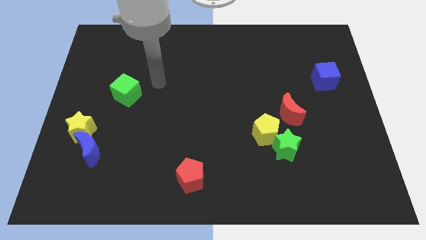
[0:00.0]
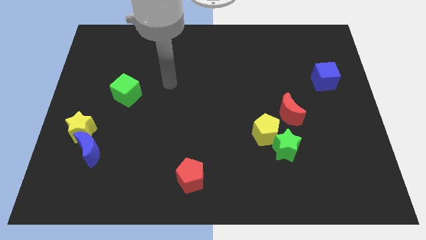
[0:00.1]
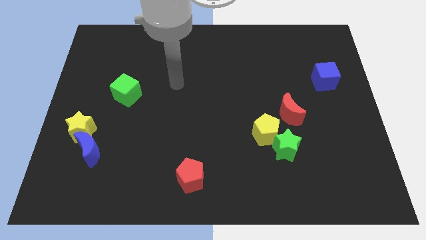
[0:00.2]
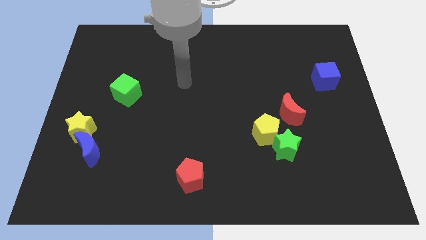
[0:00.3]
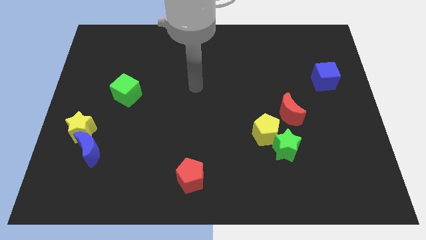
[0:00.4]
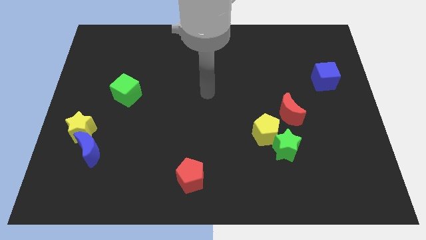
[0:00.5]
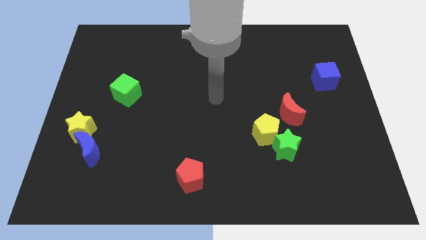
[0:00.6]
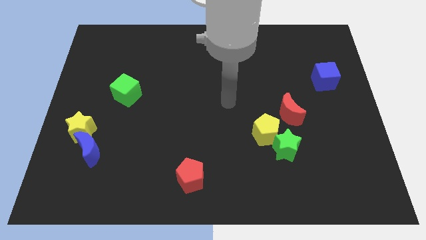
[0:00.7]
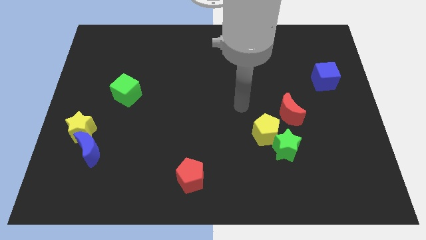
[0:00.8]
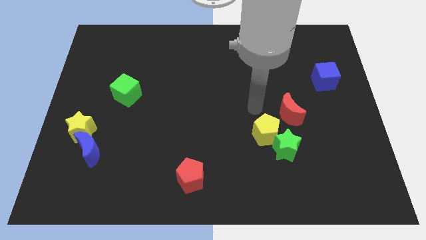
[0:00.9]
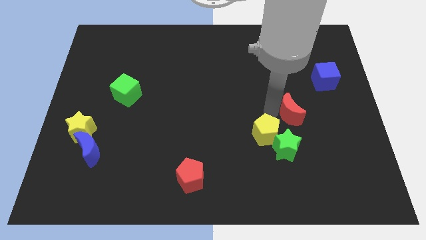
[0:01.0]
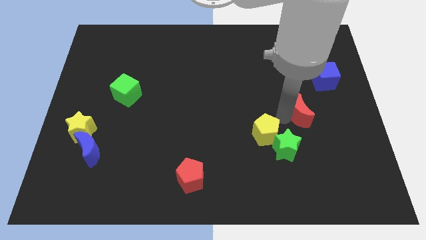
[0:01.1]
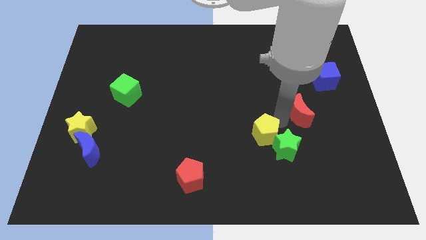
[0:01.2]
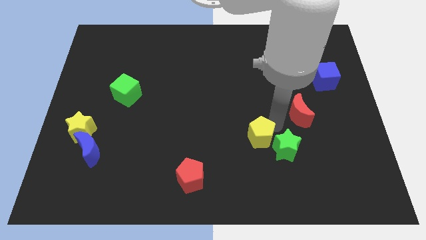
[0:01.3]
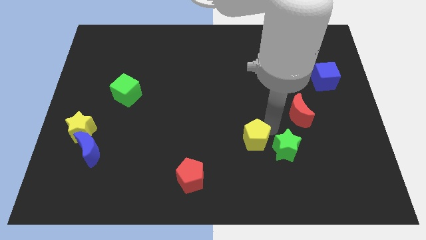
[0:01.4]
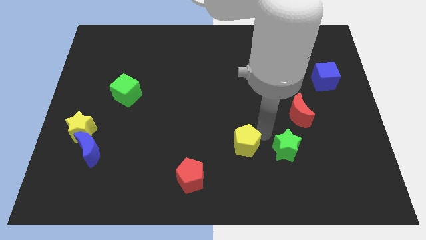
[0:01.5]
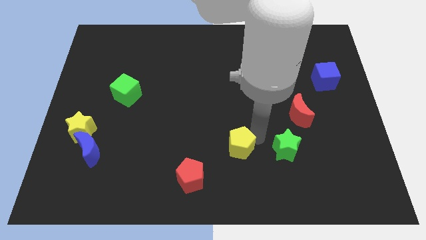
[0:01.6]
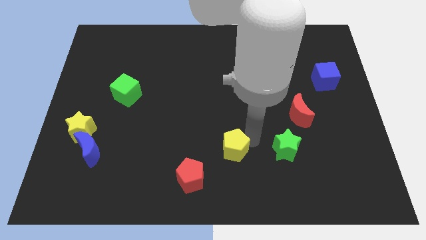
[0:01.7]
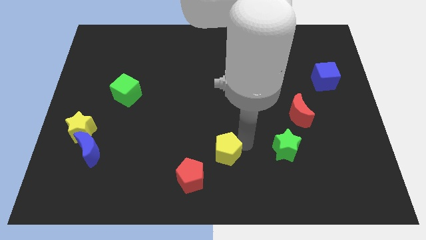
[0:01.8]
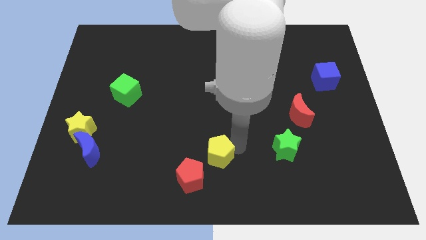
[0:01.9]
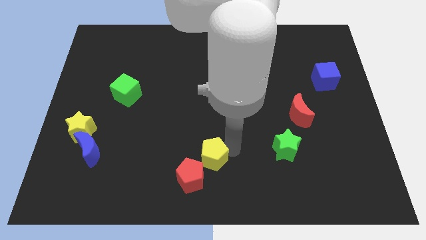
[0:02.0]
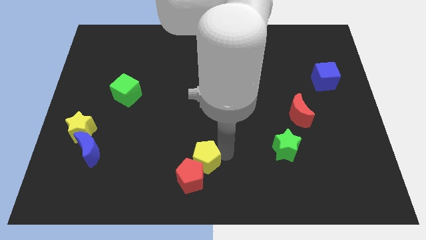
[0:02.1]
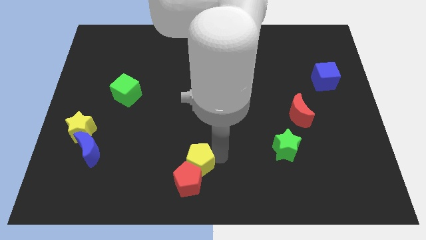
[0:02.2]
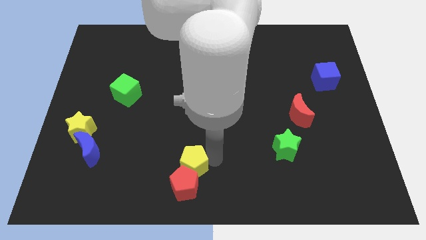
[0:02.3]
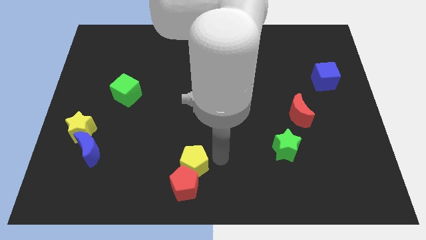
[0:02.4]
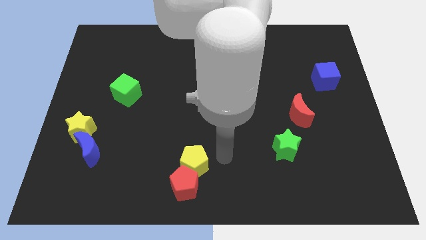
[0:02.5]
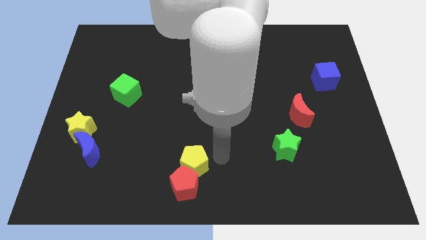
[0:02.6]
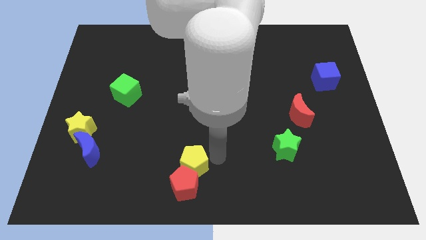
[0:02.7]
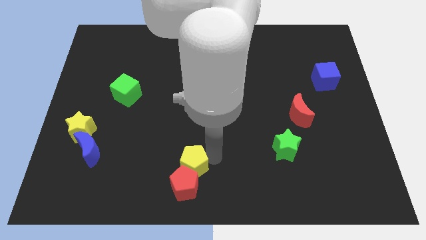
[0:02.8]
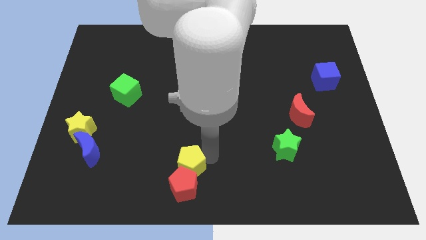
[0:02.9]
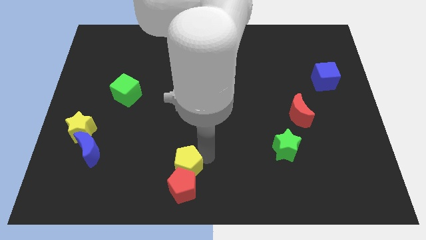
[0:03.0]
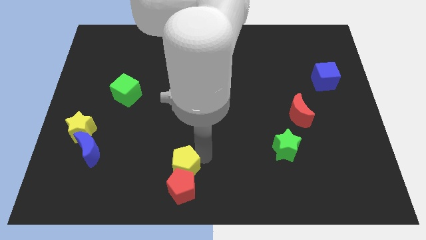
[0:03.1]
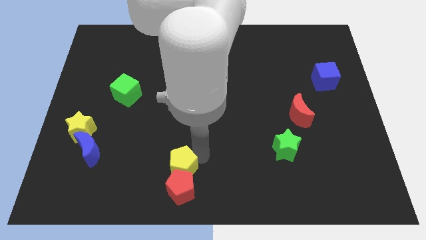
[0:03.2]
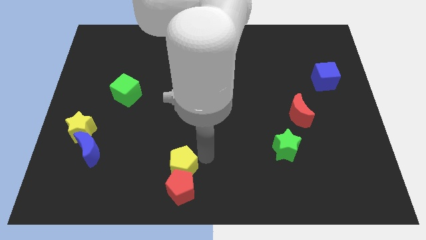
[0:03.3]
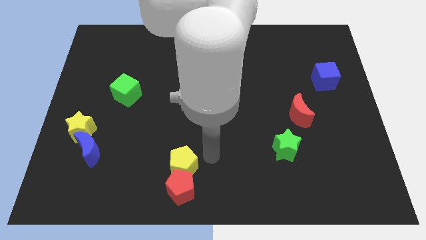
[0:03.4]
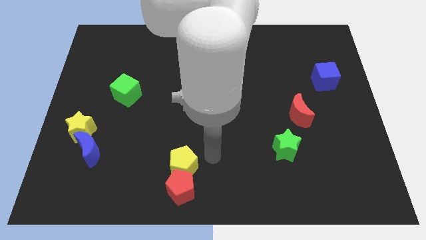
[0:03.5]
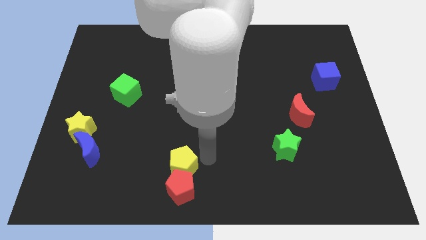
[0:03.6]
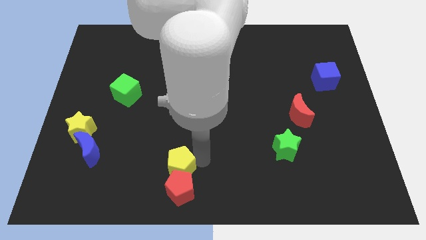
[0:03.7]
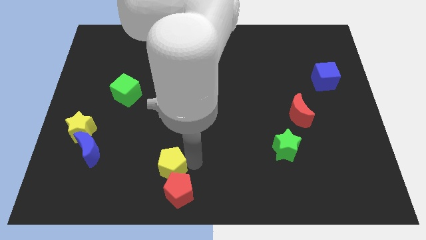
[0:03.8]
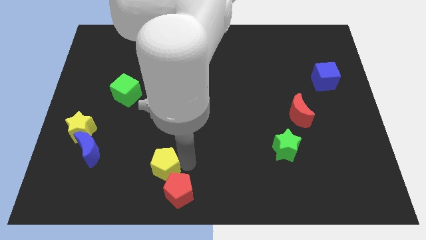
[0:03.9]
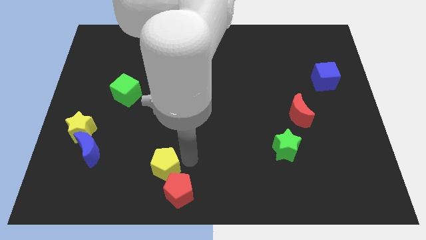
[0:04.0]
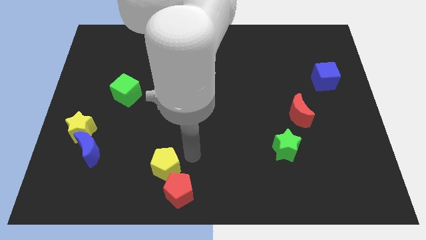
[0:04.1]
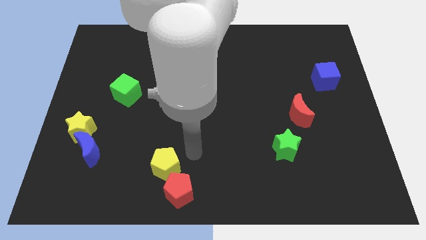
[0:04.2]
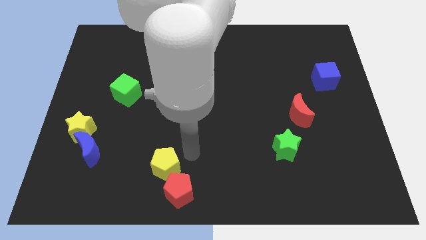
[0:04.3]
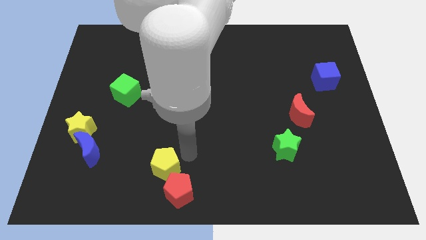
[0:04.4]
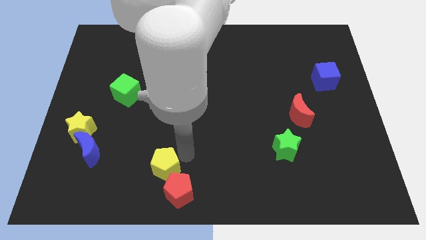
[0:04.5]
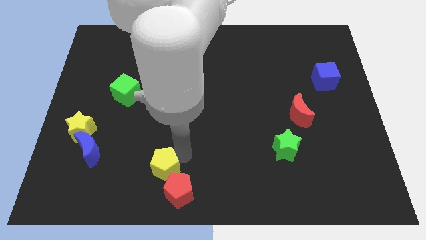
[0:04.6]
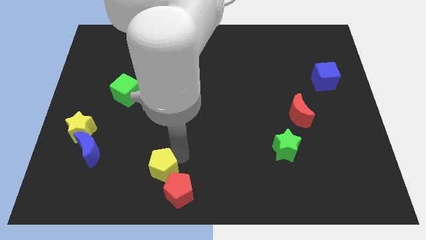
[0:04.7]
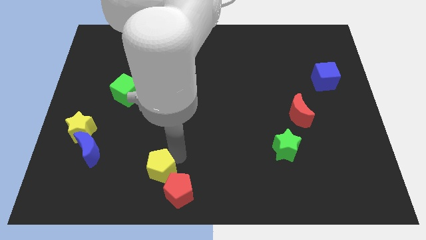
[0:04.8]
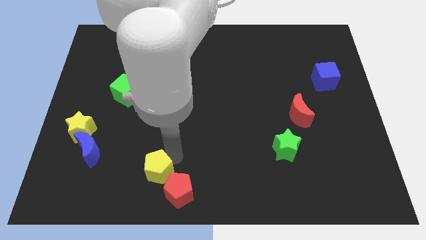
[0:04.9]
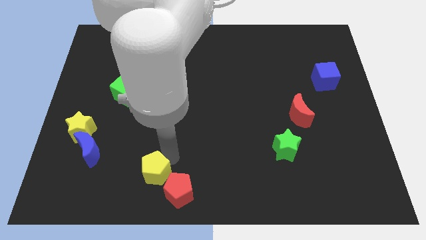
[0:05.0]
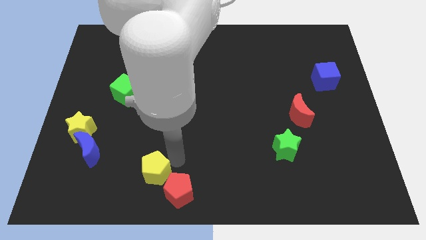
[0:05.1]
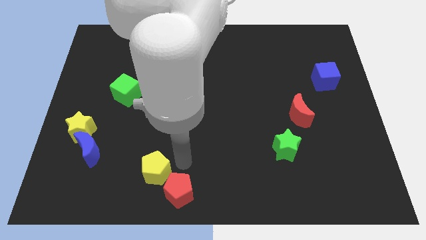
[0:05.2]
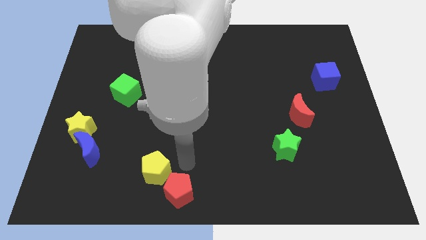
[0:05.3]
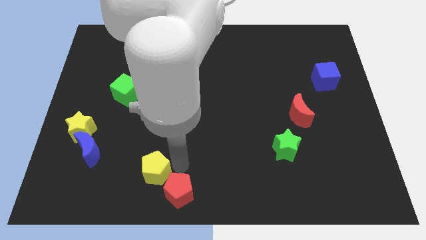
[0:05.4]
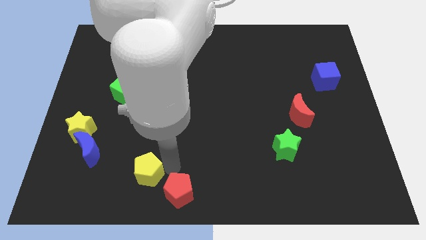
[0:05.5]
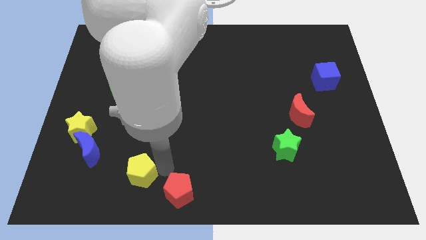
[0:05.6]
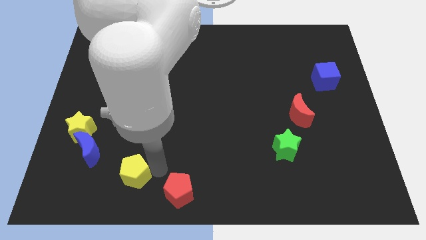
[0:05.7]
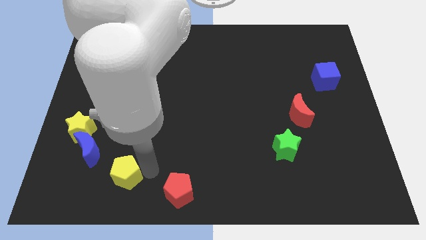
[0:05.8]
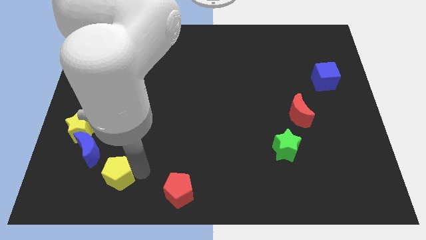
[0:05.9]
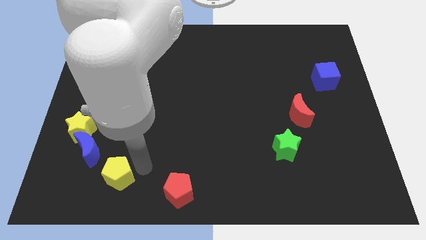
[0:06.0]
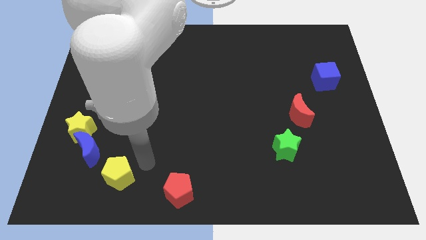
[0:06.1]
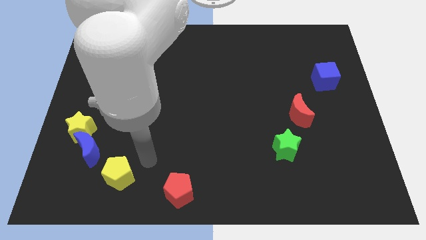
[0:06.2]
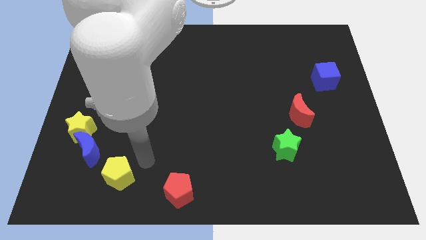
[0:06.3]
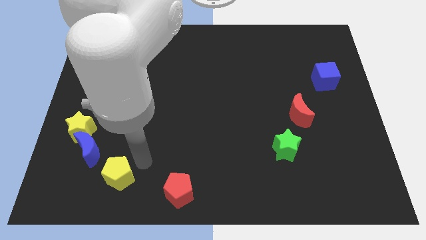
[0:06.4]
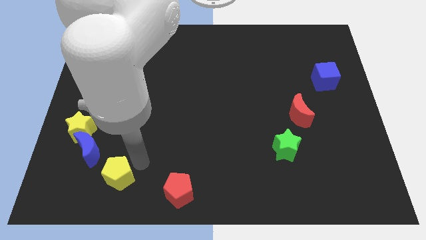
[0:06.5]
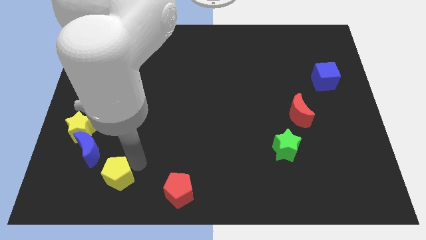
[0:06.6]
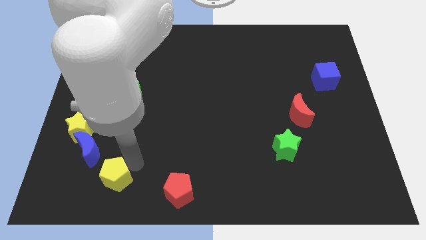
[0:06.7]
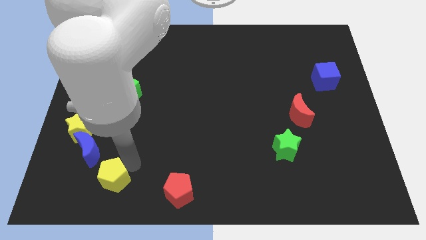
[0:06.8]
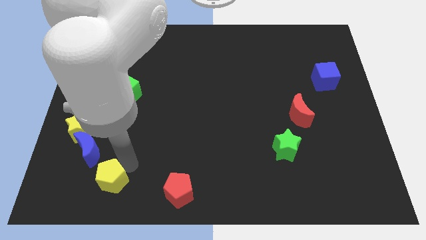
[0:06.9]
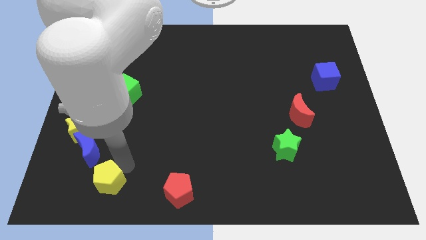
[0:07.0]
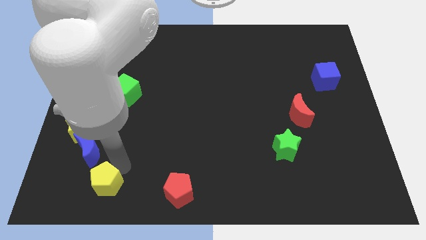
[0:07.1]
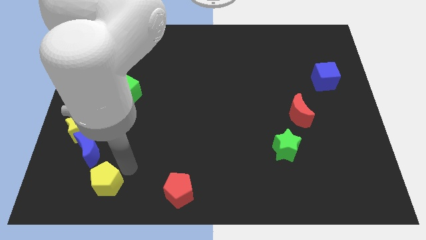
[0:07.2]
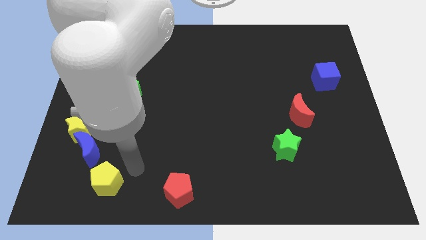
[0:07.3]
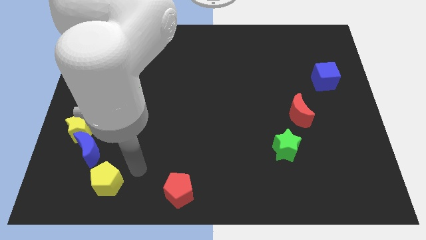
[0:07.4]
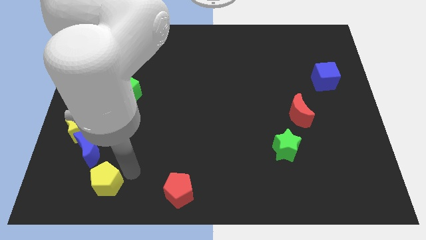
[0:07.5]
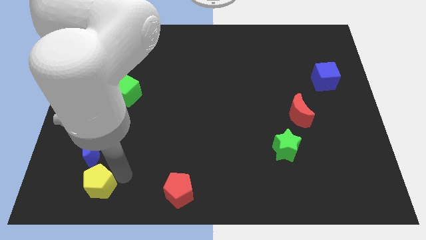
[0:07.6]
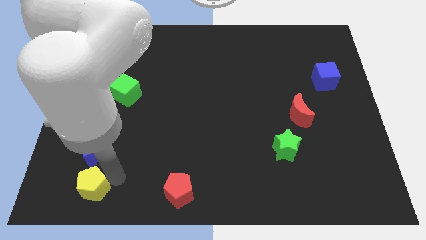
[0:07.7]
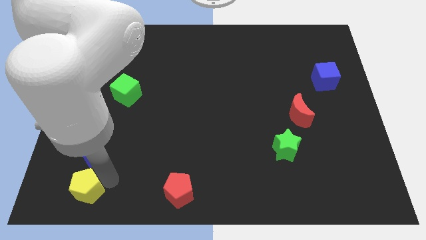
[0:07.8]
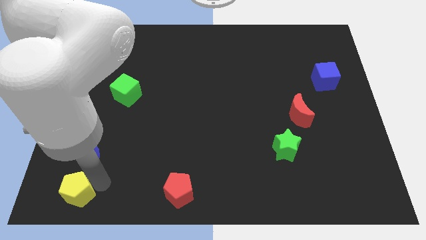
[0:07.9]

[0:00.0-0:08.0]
move the yellow pentagon to the bottom left corner
